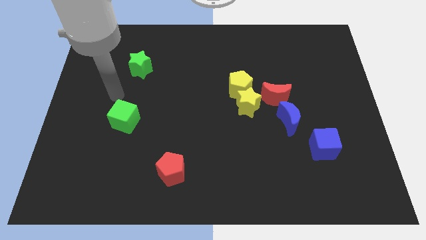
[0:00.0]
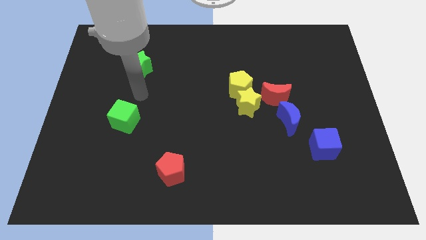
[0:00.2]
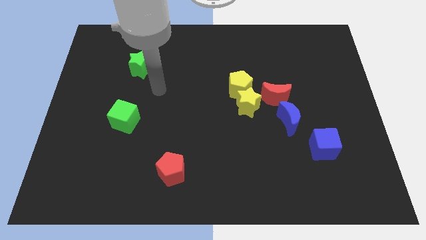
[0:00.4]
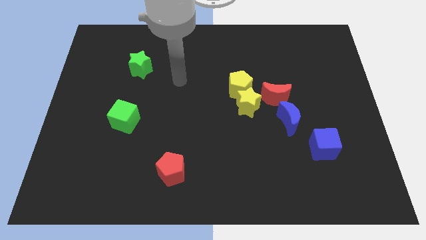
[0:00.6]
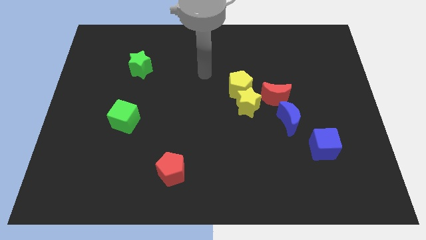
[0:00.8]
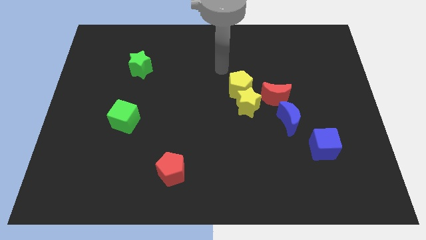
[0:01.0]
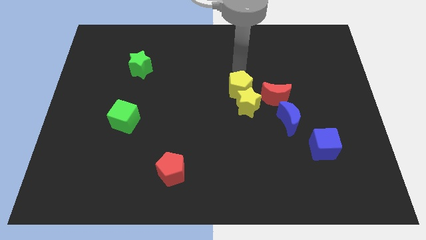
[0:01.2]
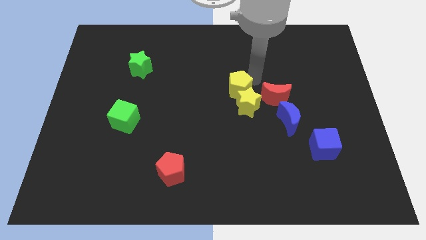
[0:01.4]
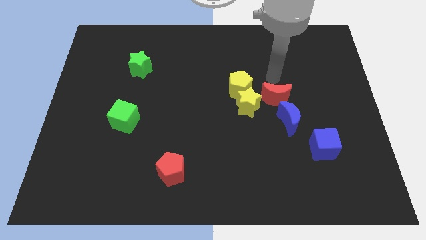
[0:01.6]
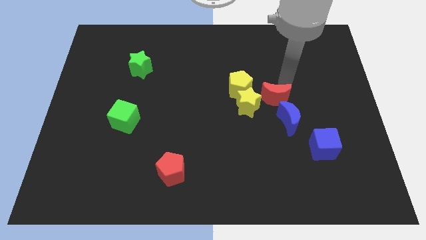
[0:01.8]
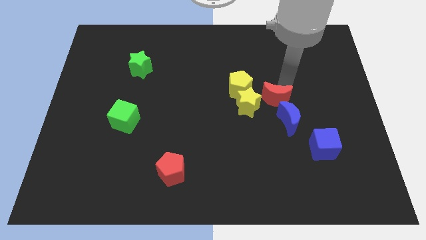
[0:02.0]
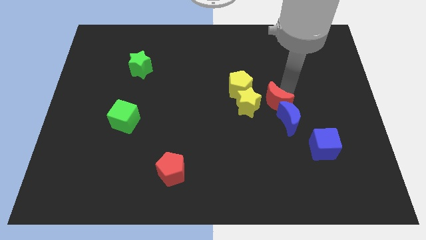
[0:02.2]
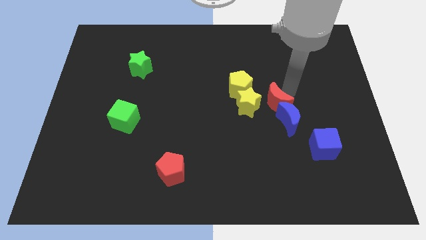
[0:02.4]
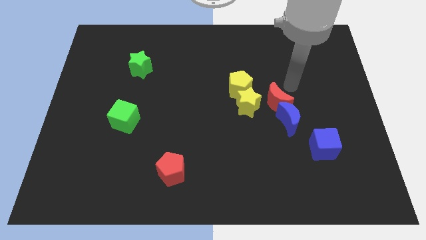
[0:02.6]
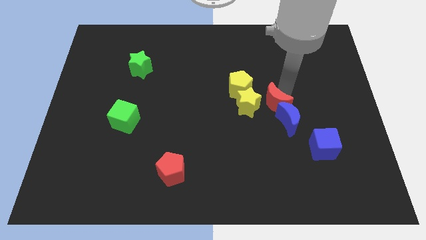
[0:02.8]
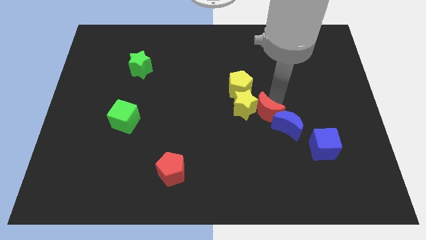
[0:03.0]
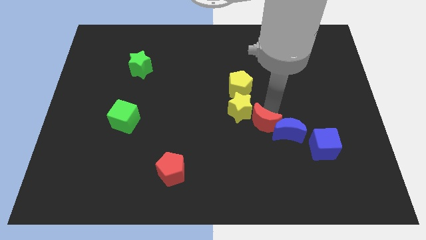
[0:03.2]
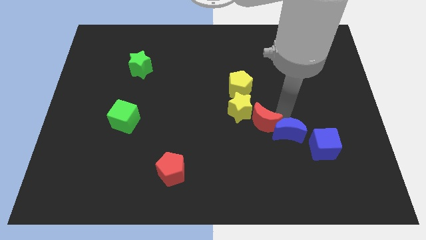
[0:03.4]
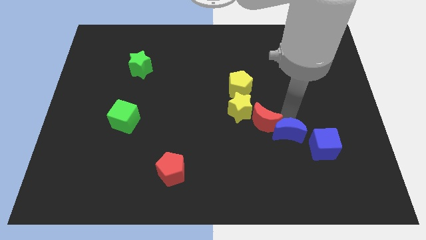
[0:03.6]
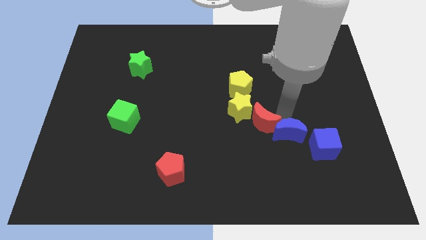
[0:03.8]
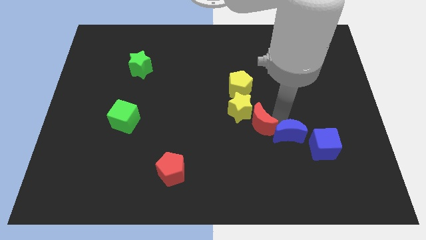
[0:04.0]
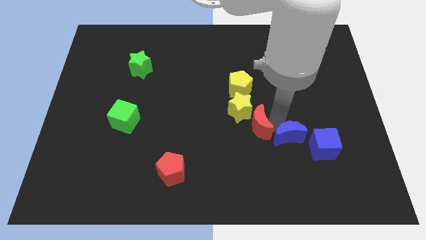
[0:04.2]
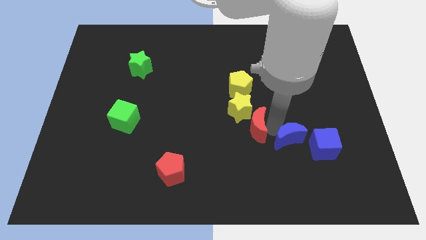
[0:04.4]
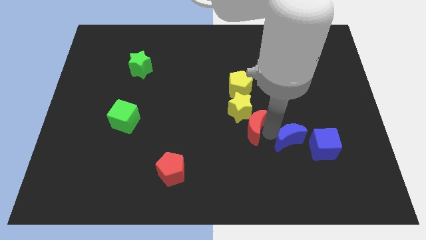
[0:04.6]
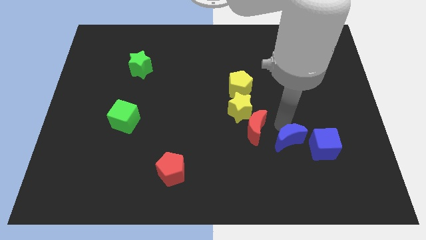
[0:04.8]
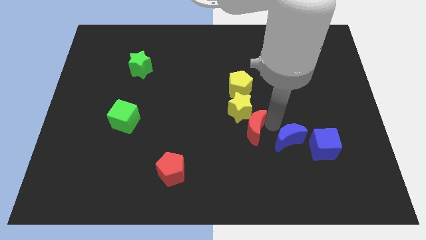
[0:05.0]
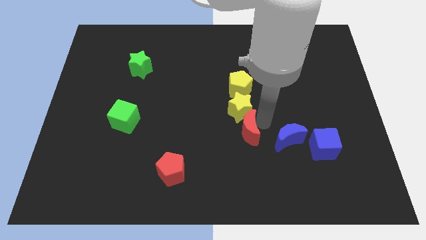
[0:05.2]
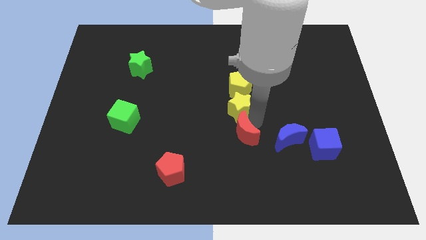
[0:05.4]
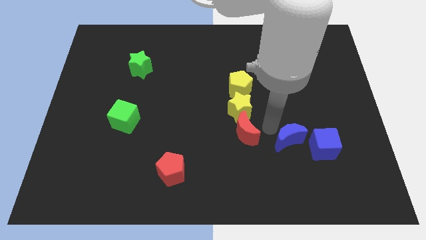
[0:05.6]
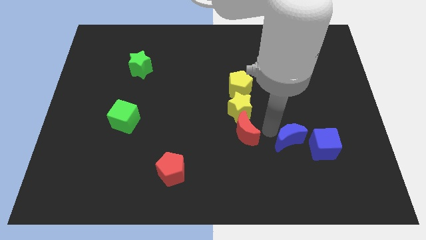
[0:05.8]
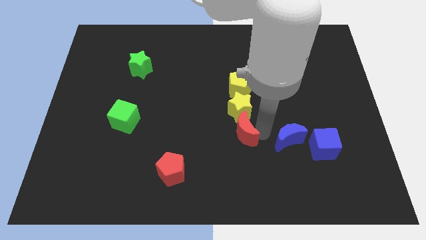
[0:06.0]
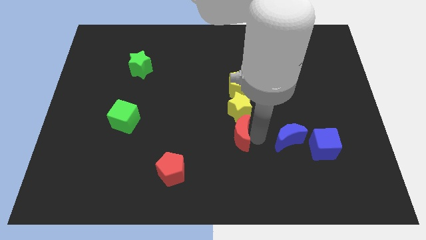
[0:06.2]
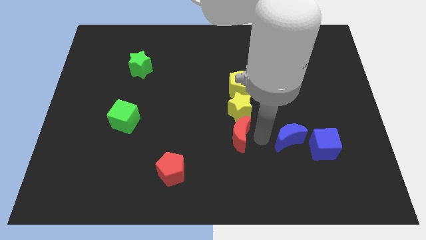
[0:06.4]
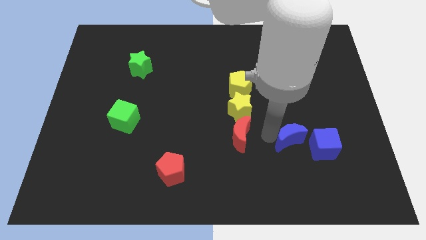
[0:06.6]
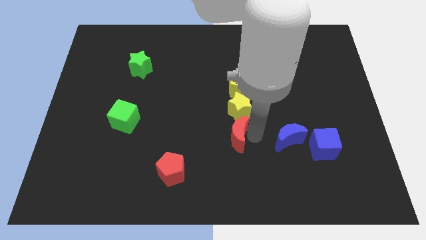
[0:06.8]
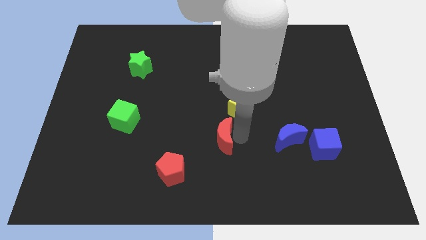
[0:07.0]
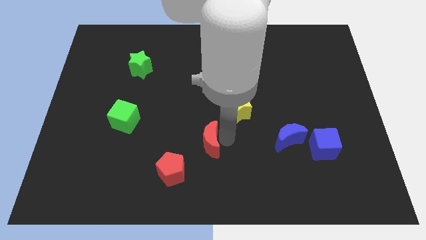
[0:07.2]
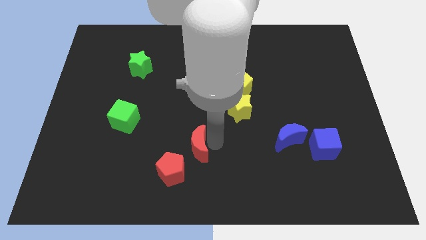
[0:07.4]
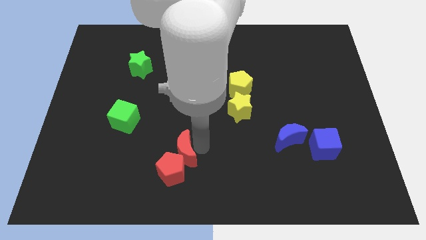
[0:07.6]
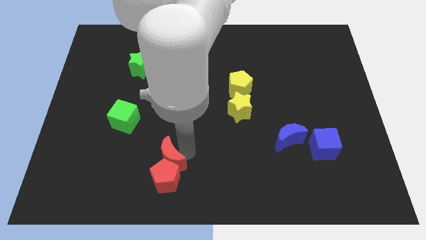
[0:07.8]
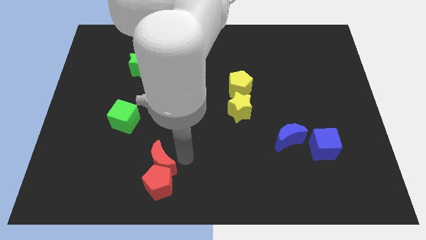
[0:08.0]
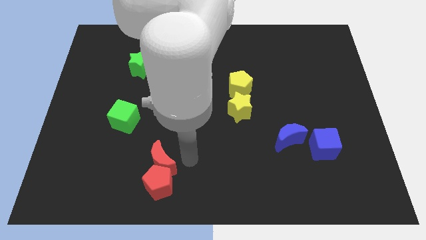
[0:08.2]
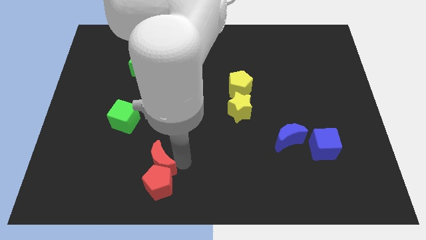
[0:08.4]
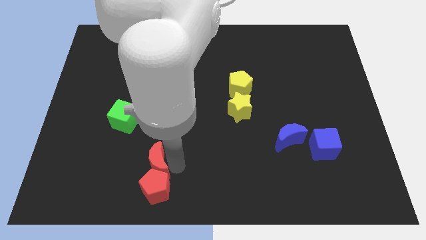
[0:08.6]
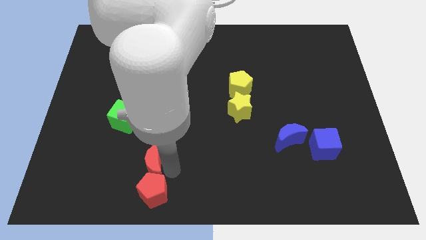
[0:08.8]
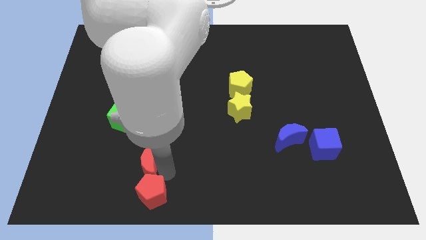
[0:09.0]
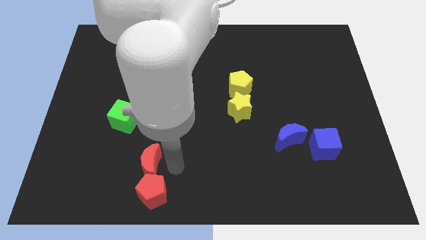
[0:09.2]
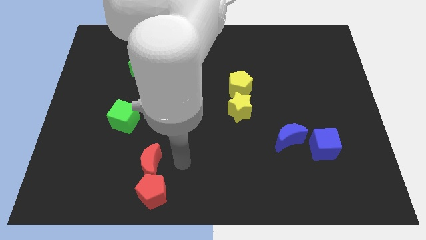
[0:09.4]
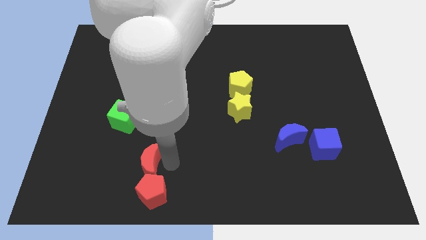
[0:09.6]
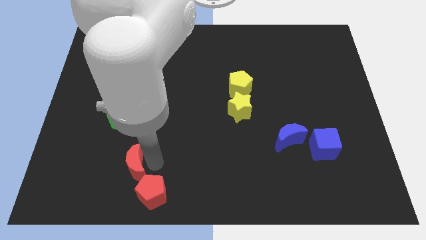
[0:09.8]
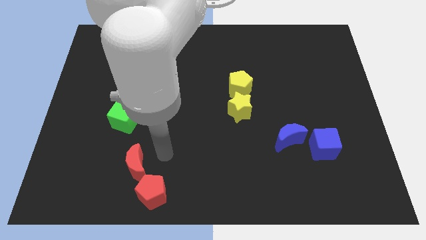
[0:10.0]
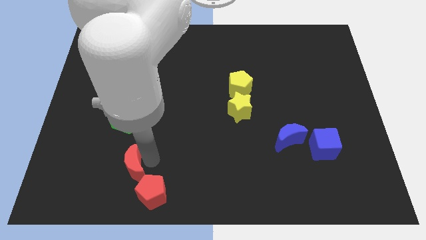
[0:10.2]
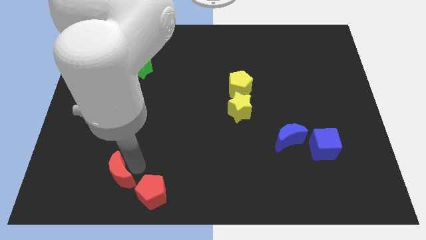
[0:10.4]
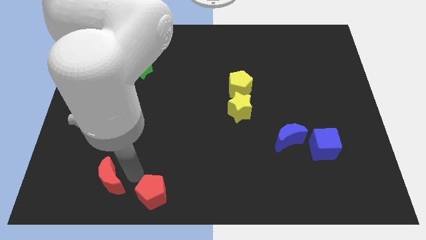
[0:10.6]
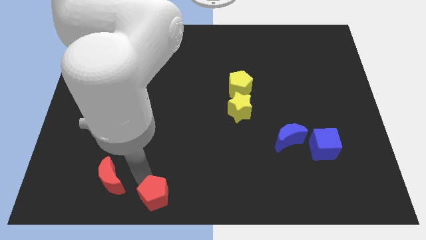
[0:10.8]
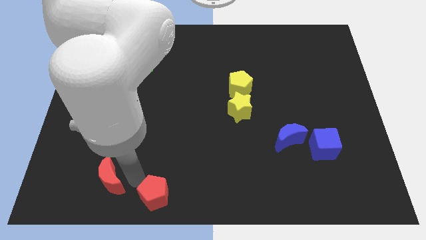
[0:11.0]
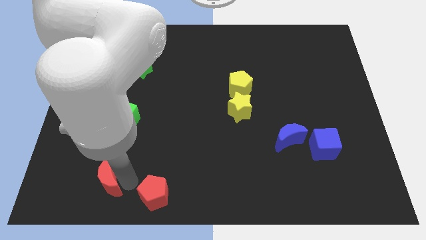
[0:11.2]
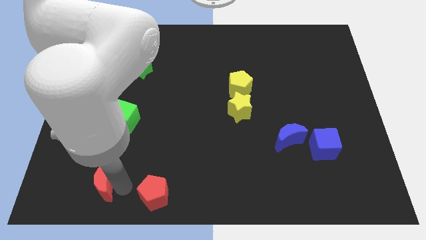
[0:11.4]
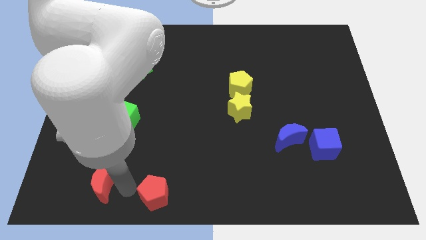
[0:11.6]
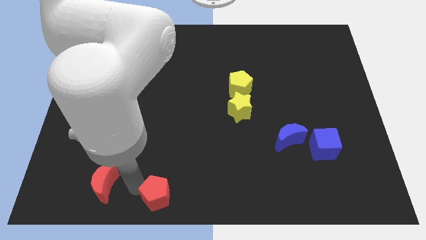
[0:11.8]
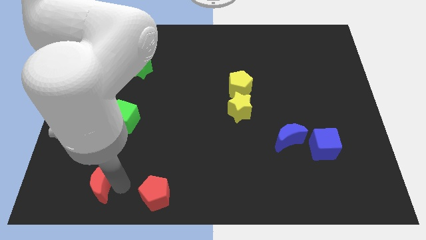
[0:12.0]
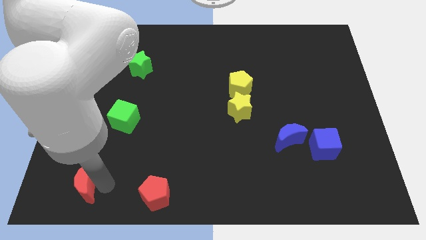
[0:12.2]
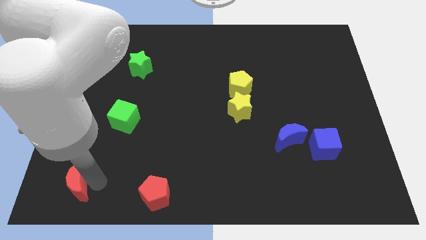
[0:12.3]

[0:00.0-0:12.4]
put the red moon to the bottom left
